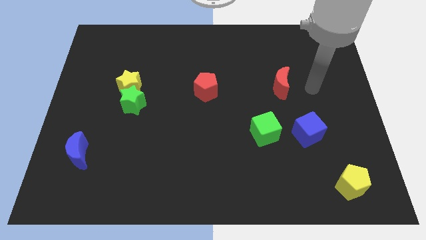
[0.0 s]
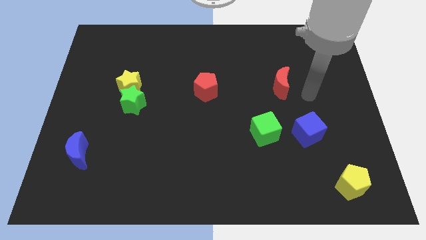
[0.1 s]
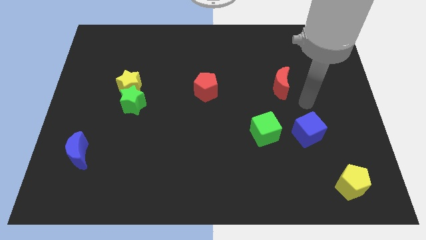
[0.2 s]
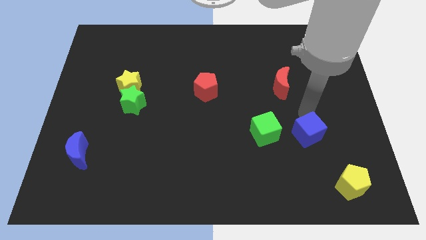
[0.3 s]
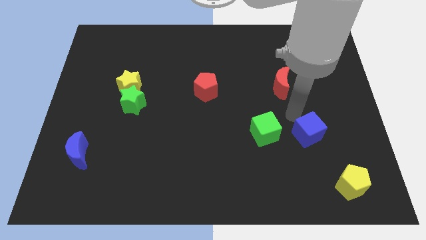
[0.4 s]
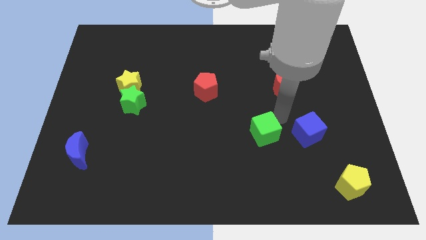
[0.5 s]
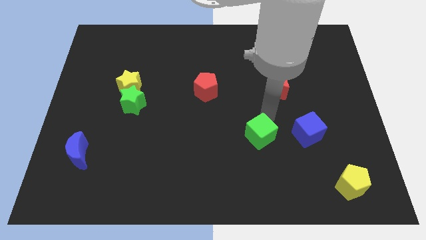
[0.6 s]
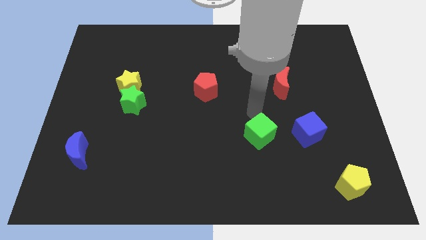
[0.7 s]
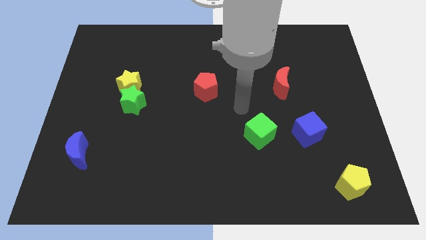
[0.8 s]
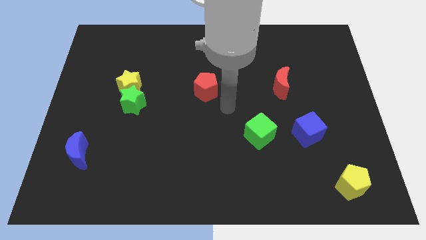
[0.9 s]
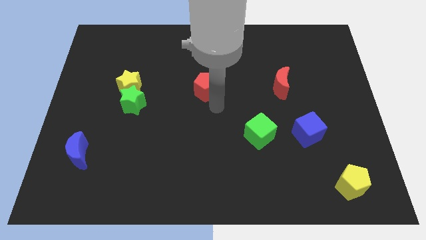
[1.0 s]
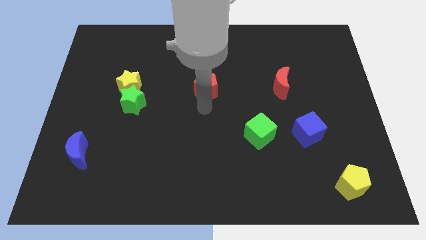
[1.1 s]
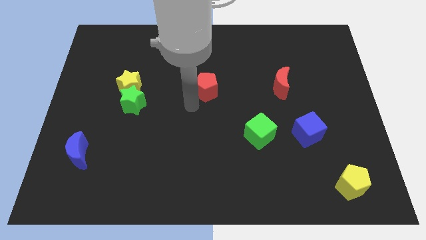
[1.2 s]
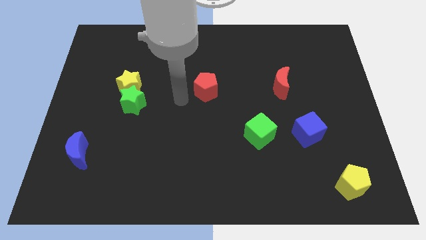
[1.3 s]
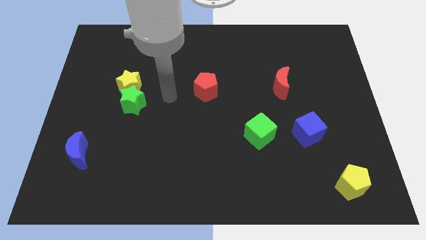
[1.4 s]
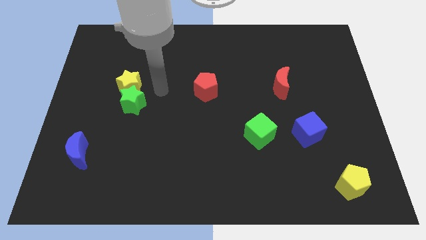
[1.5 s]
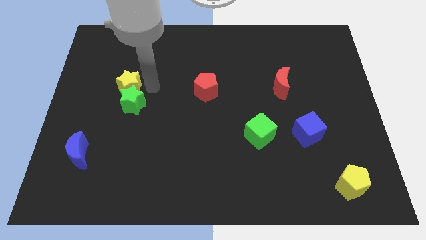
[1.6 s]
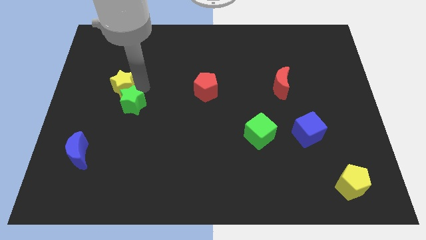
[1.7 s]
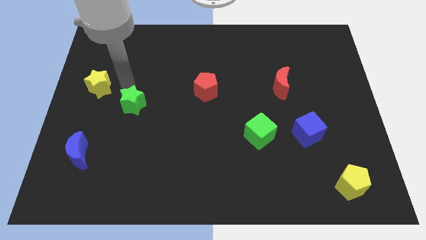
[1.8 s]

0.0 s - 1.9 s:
move the green star away from the yellow star

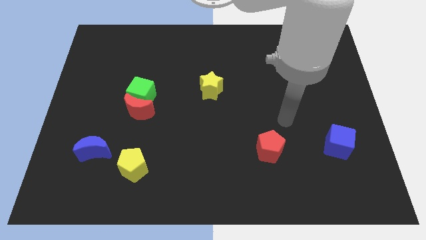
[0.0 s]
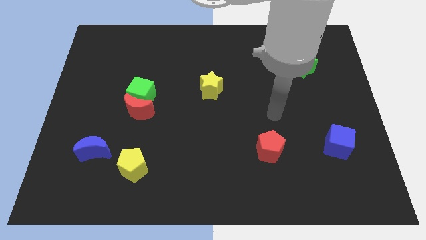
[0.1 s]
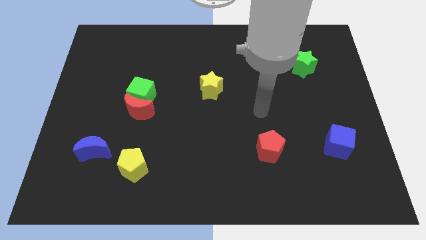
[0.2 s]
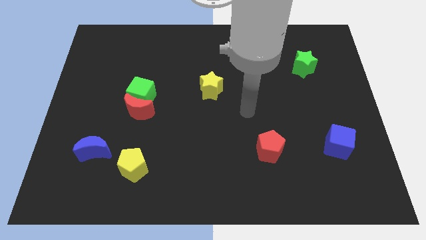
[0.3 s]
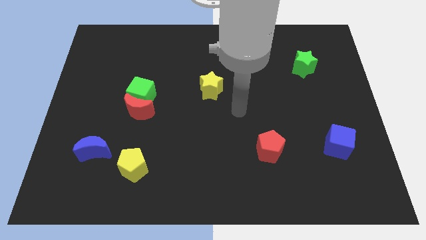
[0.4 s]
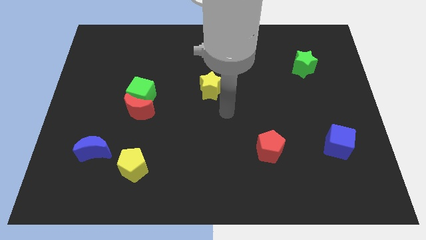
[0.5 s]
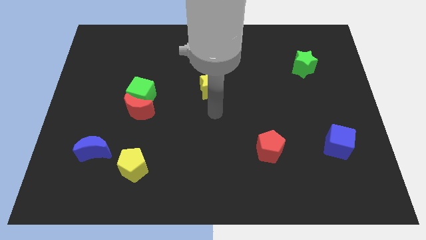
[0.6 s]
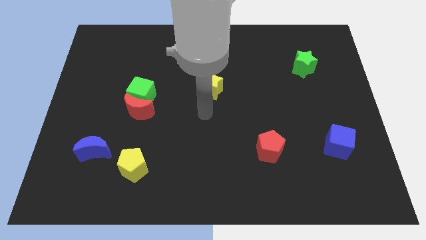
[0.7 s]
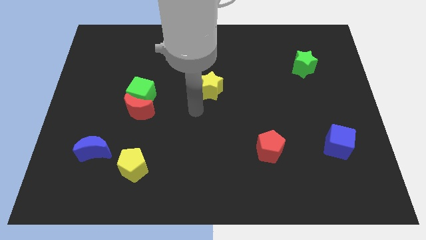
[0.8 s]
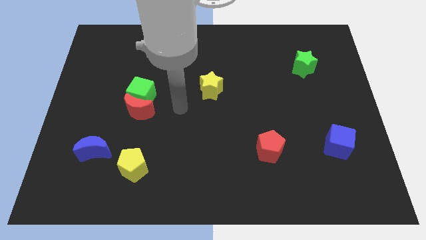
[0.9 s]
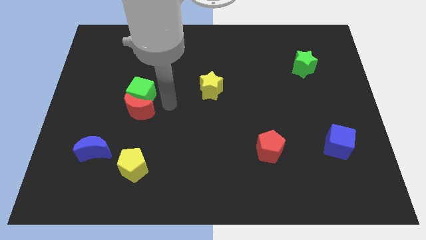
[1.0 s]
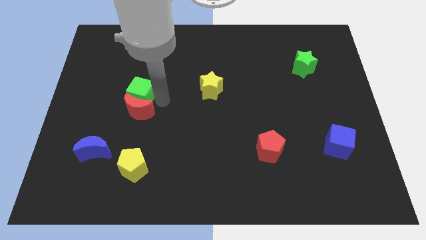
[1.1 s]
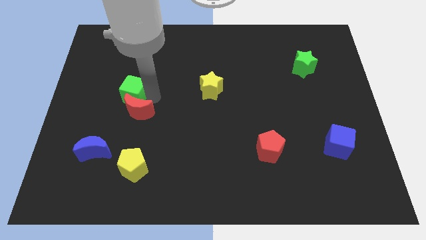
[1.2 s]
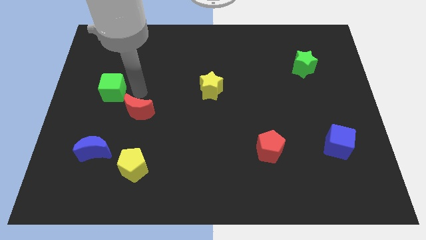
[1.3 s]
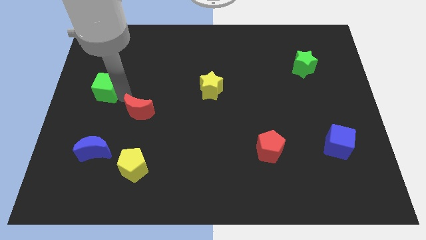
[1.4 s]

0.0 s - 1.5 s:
pull the red moon apart from the green cube

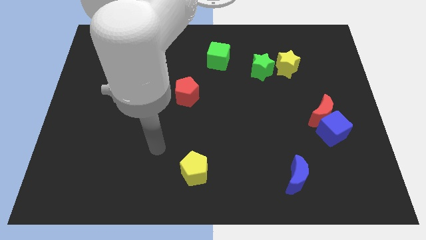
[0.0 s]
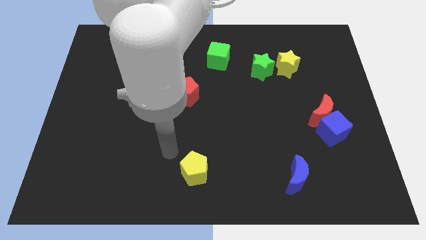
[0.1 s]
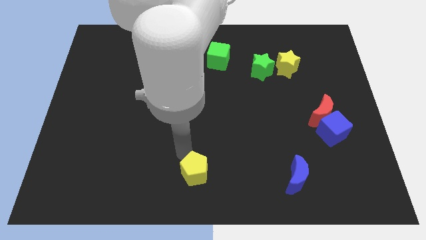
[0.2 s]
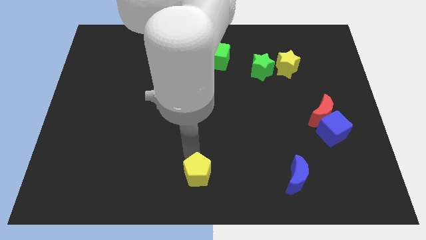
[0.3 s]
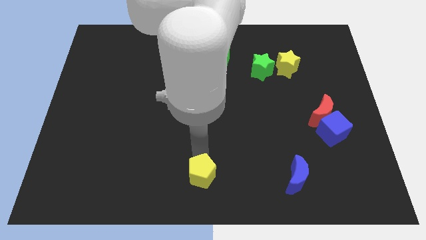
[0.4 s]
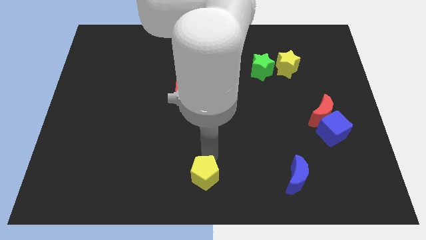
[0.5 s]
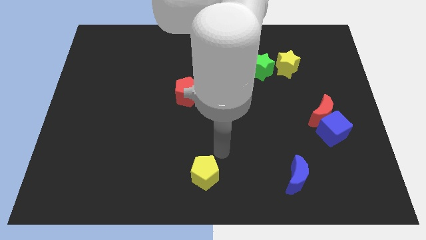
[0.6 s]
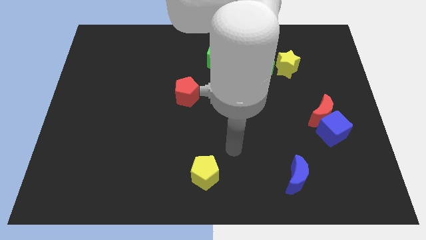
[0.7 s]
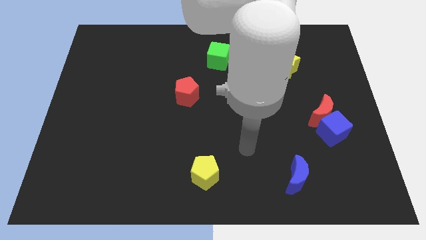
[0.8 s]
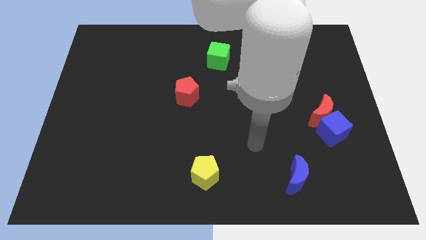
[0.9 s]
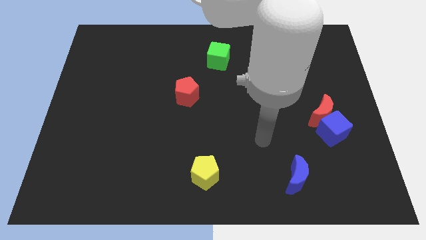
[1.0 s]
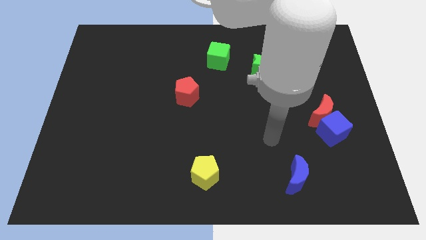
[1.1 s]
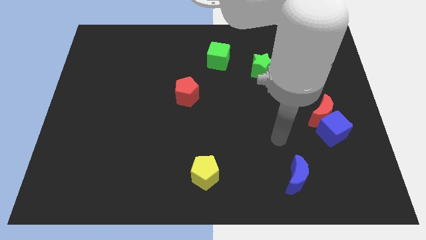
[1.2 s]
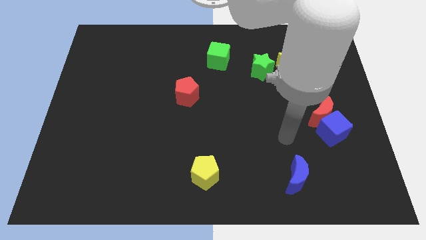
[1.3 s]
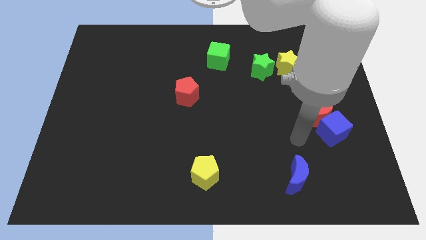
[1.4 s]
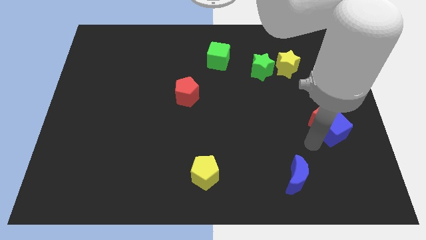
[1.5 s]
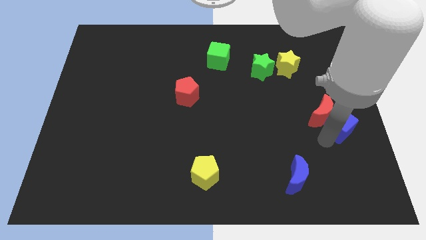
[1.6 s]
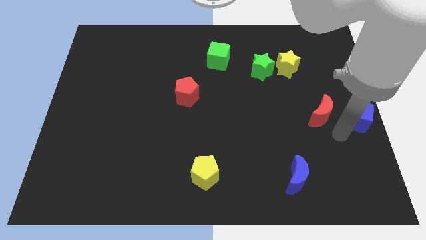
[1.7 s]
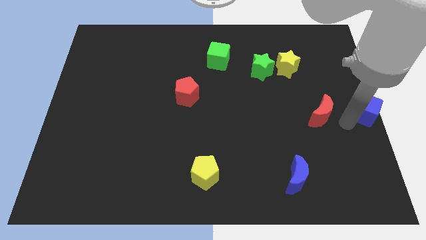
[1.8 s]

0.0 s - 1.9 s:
pull the red moon apart from the blue cube

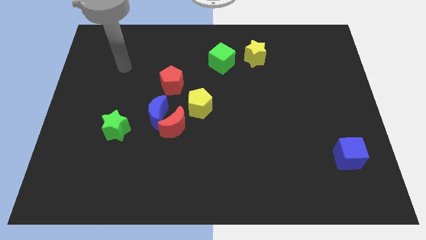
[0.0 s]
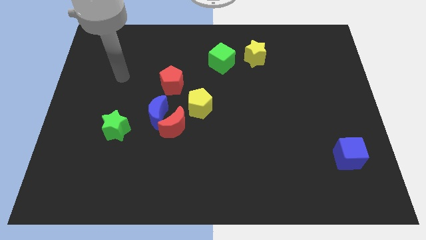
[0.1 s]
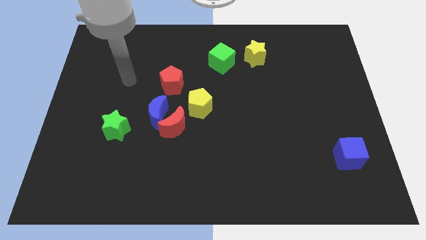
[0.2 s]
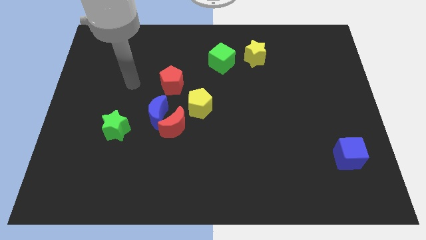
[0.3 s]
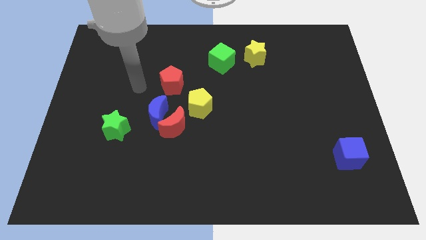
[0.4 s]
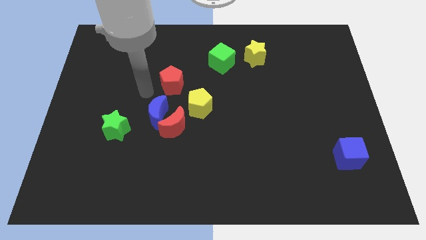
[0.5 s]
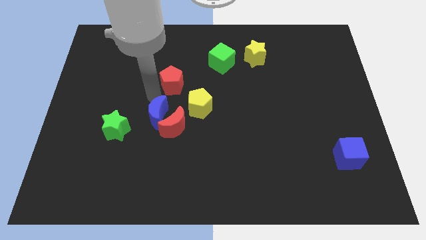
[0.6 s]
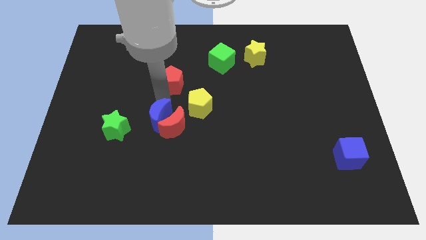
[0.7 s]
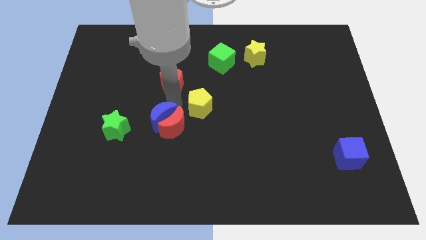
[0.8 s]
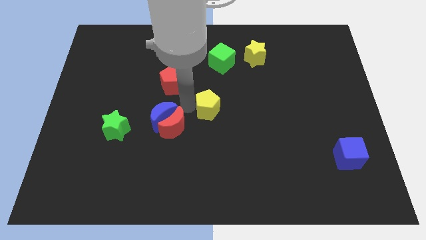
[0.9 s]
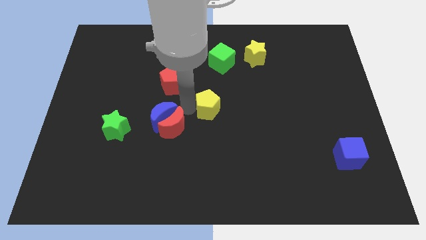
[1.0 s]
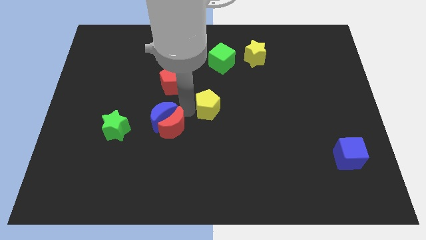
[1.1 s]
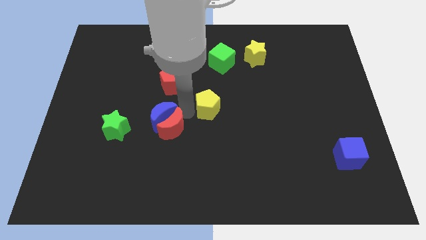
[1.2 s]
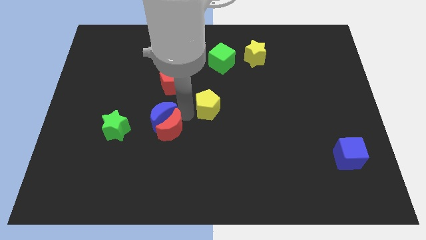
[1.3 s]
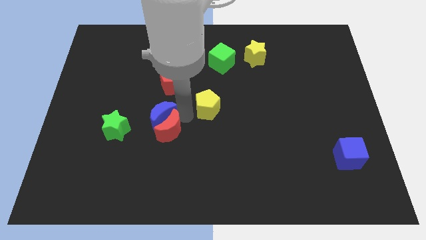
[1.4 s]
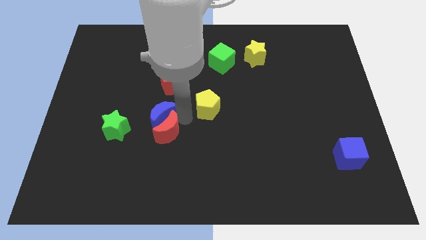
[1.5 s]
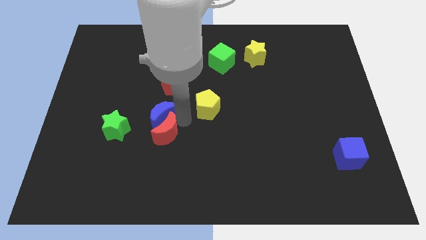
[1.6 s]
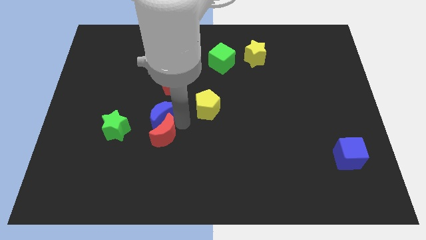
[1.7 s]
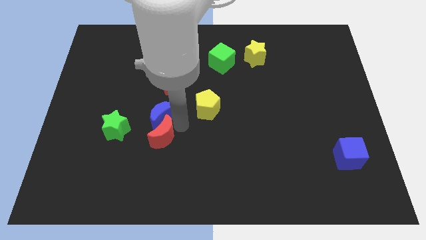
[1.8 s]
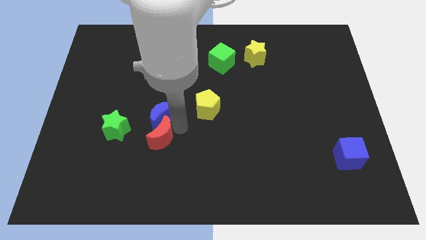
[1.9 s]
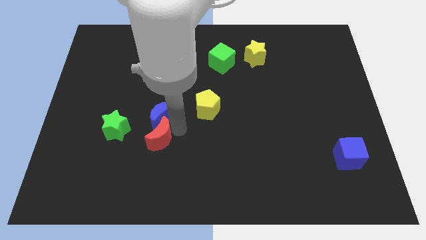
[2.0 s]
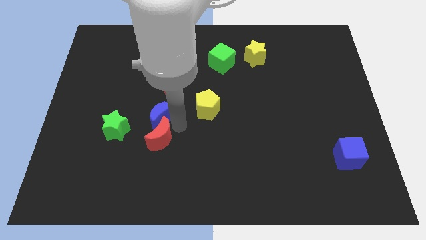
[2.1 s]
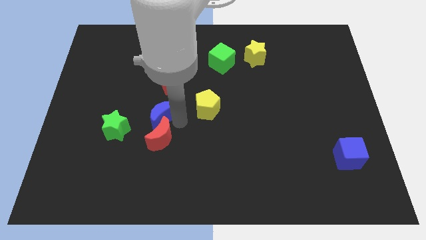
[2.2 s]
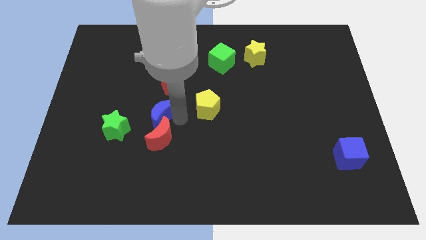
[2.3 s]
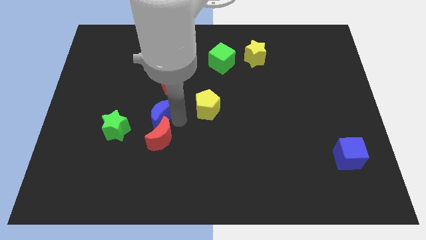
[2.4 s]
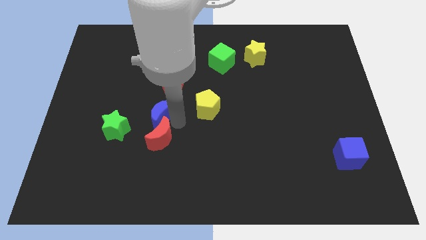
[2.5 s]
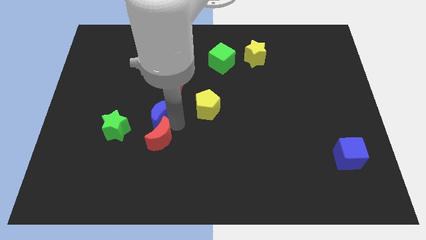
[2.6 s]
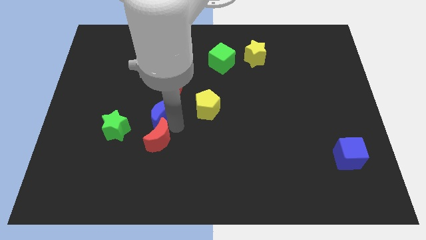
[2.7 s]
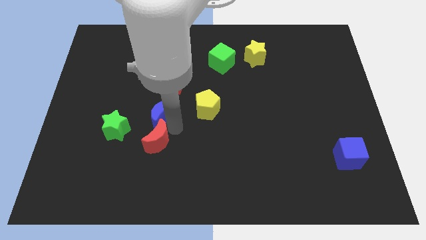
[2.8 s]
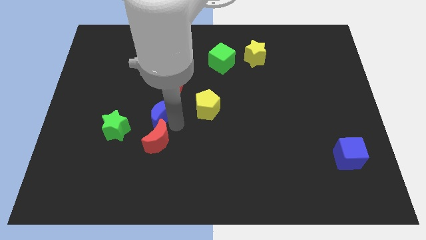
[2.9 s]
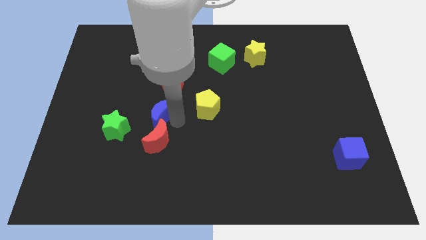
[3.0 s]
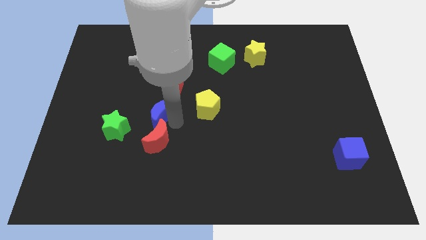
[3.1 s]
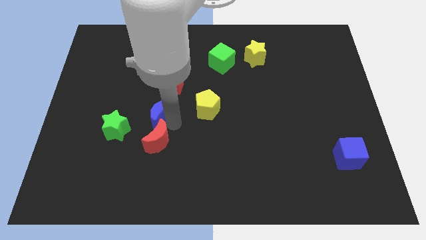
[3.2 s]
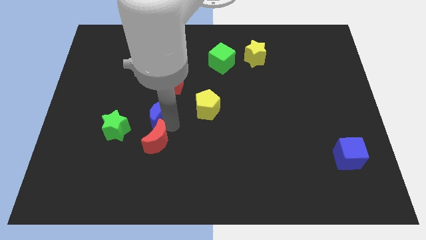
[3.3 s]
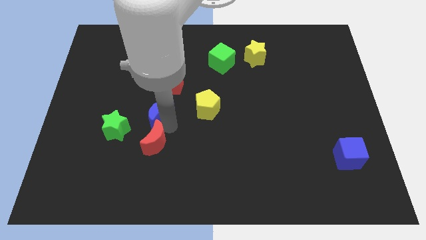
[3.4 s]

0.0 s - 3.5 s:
pull the red moon apart from the blue moon and yellow pentagon

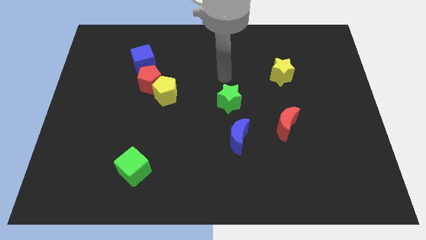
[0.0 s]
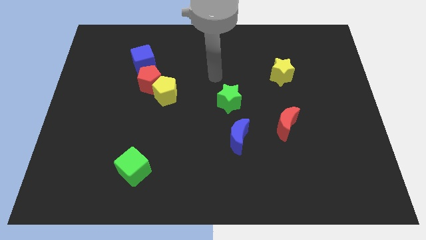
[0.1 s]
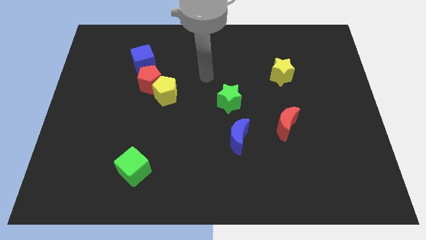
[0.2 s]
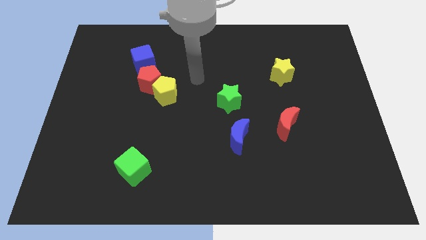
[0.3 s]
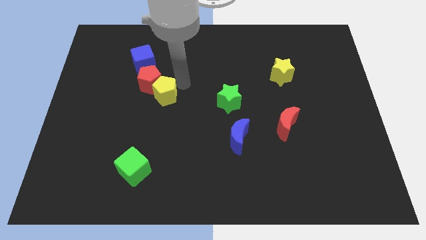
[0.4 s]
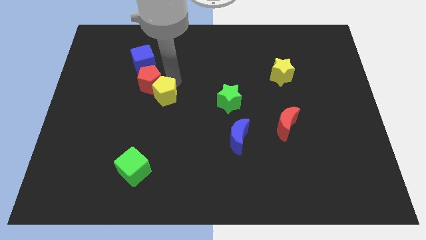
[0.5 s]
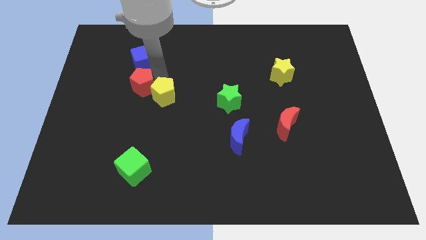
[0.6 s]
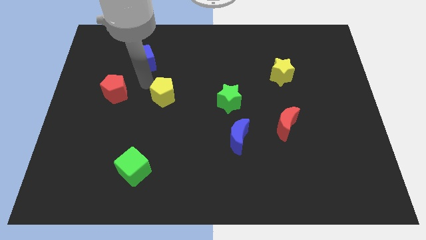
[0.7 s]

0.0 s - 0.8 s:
separate the yellow pentagon from the red pentagon
